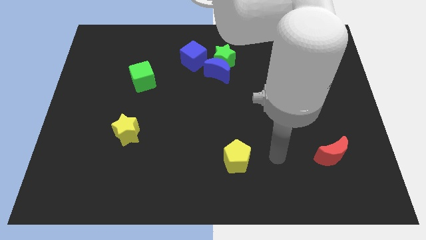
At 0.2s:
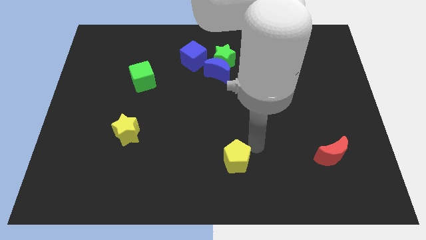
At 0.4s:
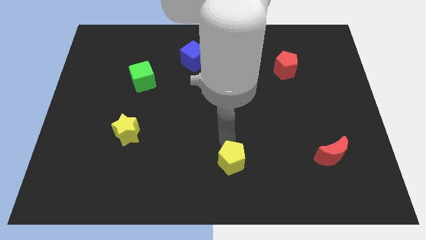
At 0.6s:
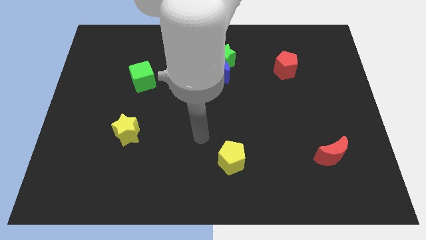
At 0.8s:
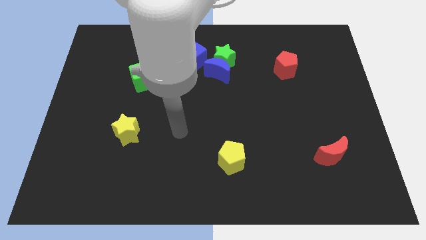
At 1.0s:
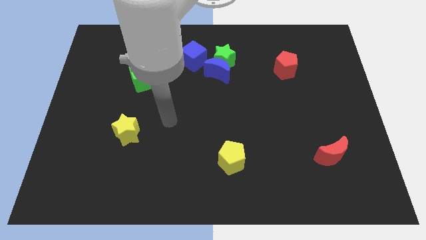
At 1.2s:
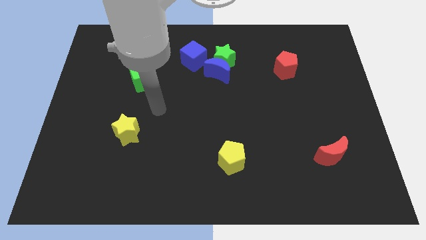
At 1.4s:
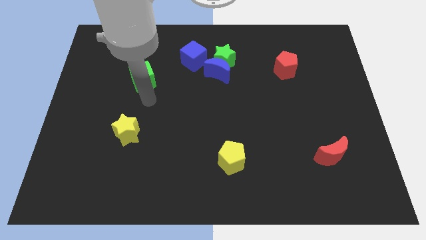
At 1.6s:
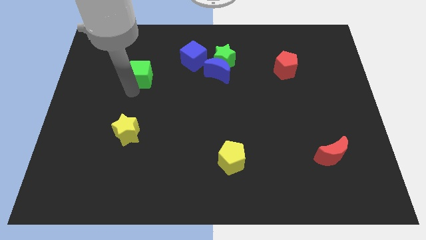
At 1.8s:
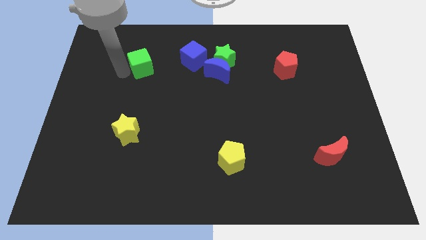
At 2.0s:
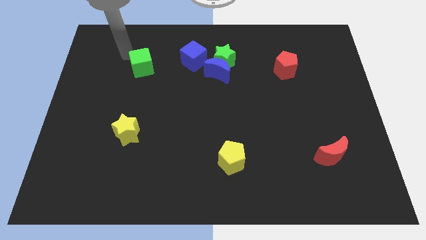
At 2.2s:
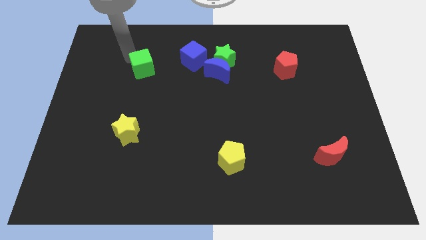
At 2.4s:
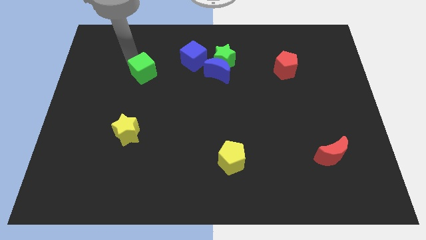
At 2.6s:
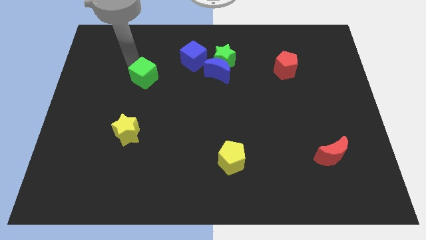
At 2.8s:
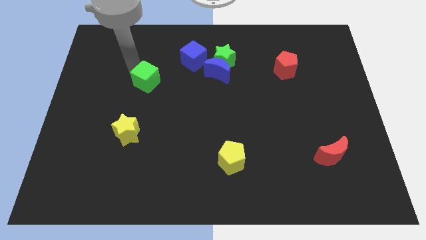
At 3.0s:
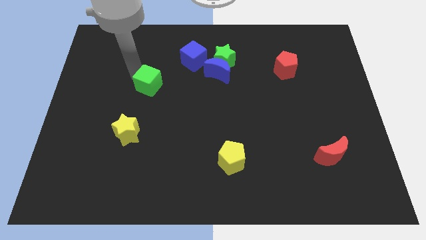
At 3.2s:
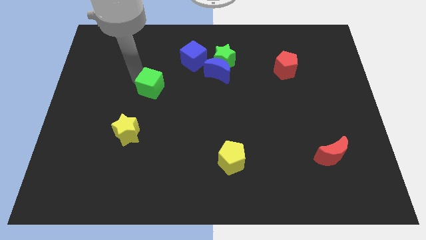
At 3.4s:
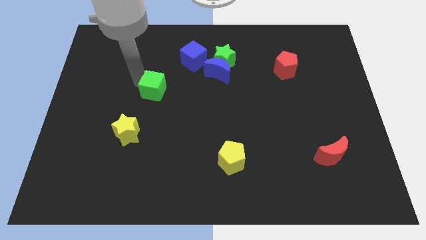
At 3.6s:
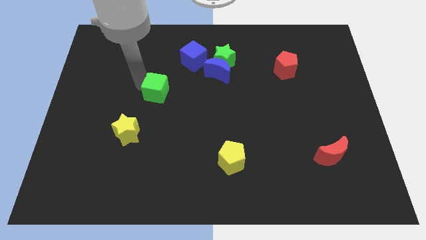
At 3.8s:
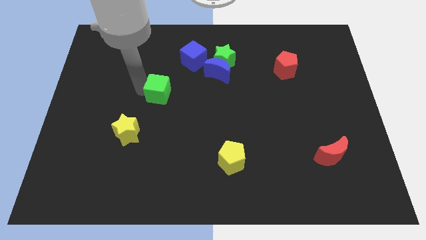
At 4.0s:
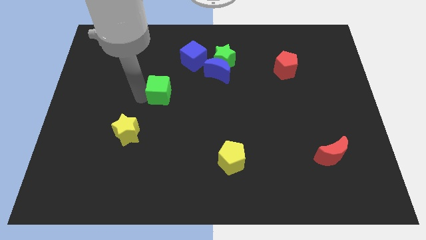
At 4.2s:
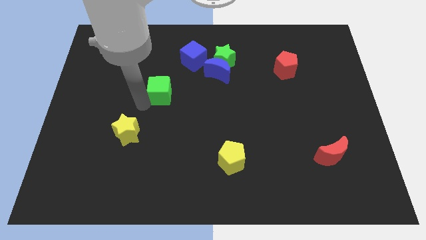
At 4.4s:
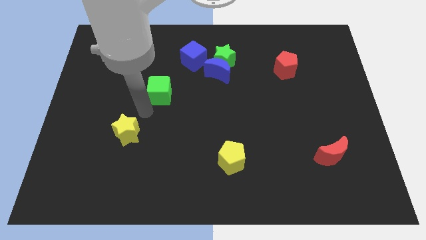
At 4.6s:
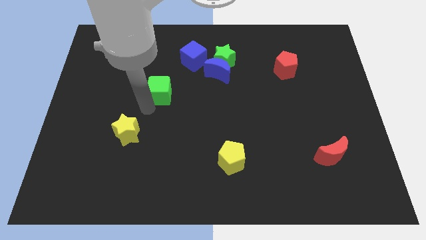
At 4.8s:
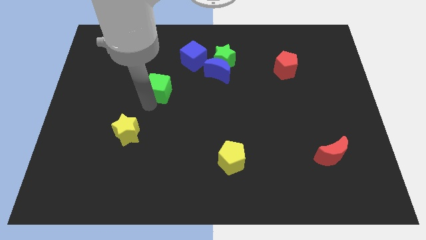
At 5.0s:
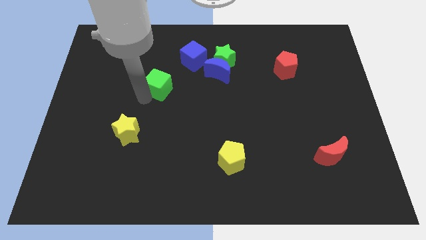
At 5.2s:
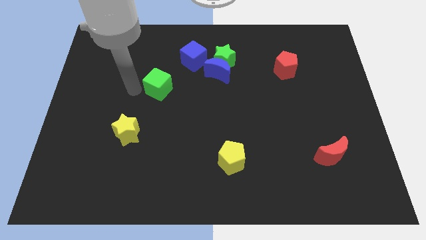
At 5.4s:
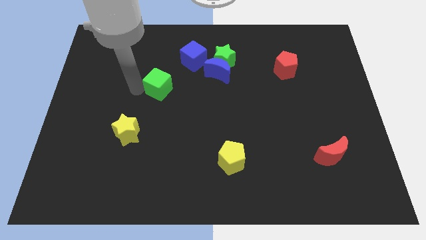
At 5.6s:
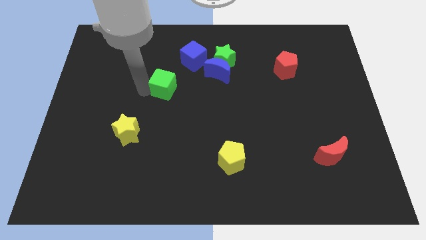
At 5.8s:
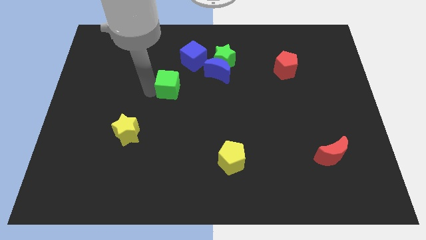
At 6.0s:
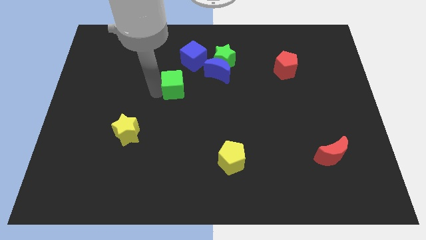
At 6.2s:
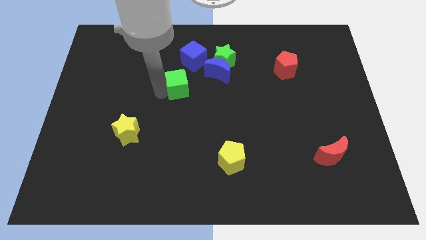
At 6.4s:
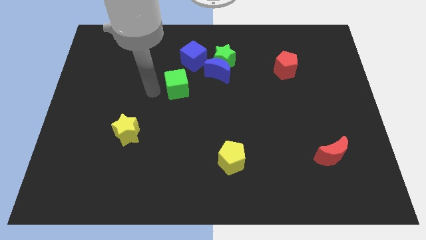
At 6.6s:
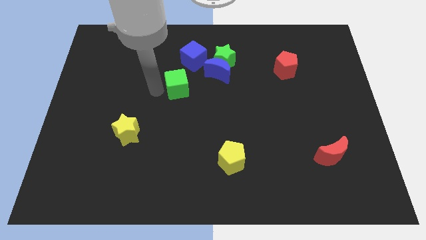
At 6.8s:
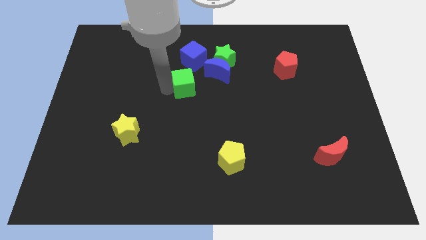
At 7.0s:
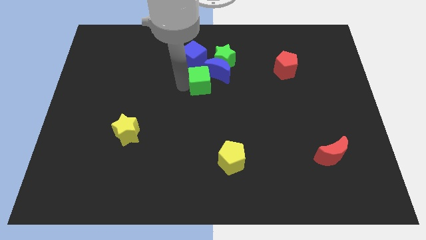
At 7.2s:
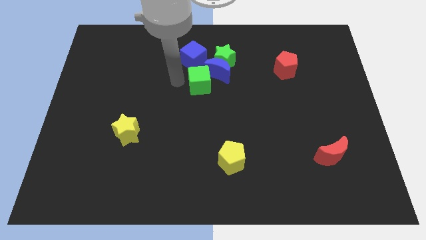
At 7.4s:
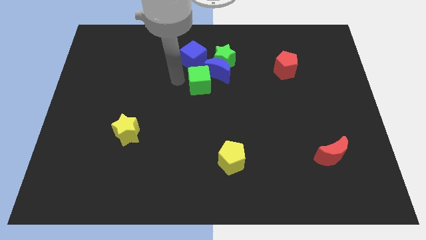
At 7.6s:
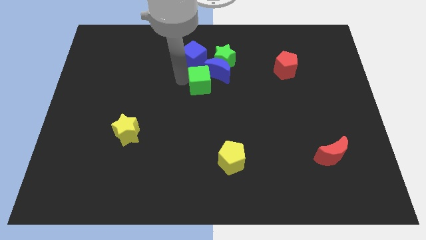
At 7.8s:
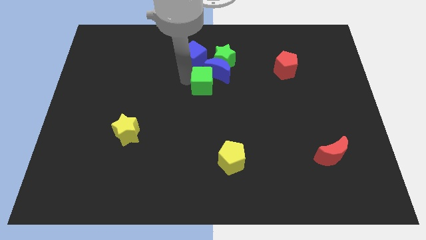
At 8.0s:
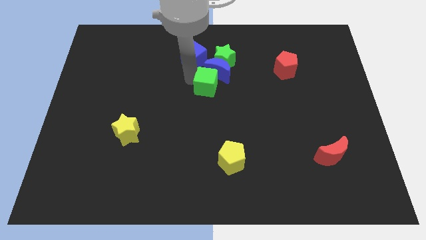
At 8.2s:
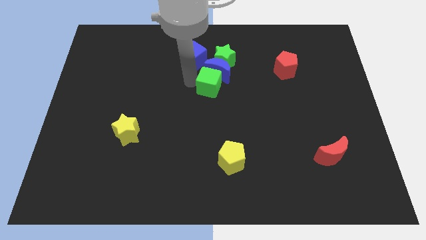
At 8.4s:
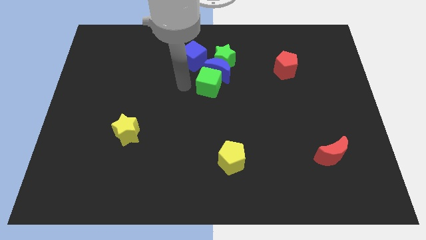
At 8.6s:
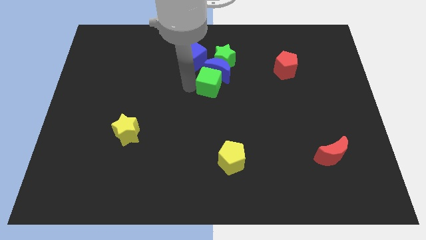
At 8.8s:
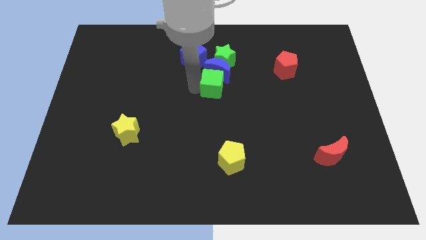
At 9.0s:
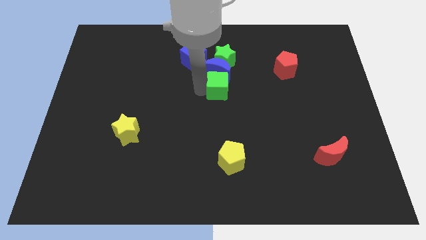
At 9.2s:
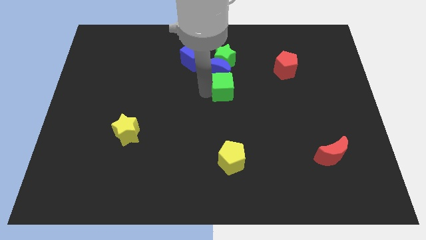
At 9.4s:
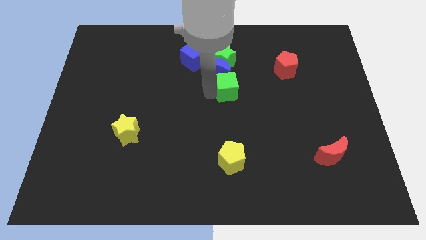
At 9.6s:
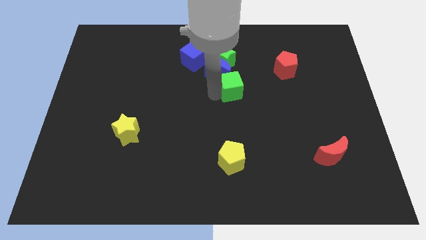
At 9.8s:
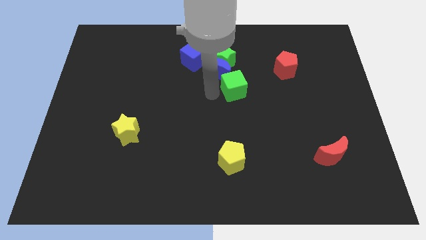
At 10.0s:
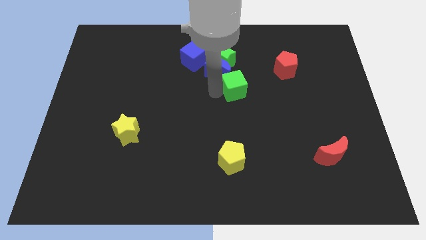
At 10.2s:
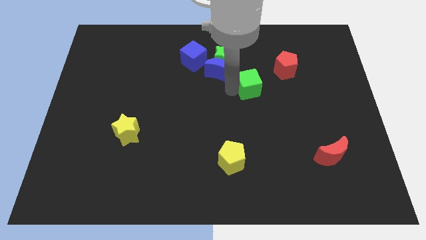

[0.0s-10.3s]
put the green cube diagonally down and to the left of the red pentagon

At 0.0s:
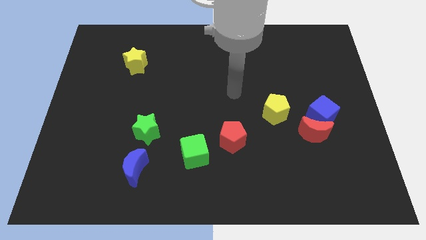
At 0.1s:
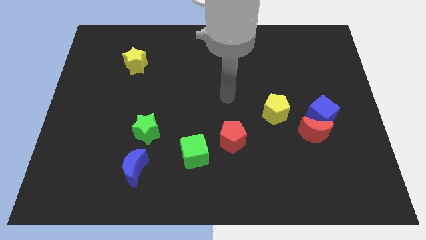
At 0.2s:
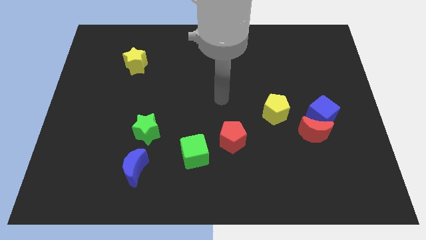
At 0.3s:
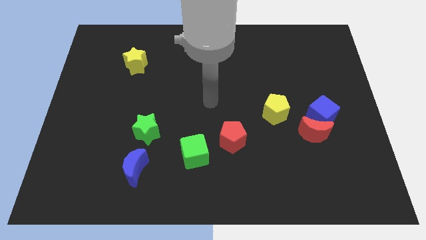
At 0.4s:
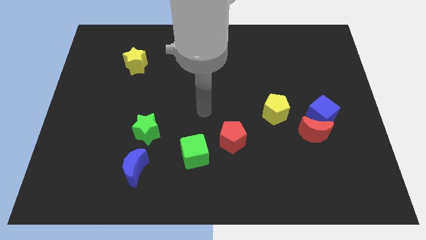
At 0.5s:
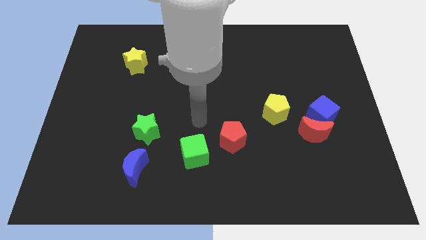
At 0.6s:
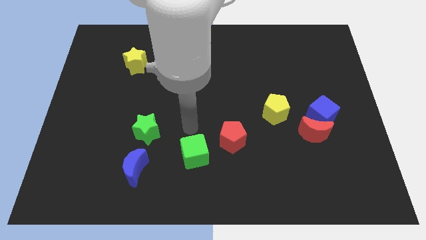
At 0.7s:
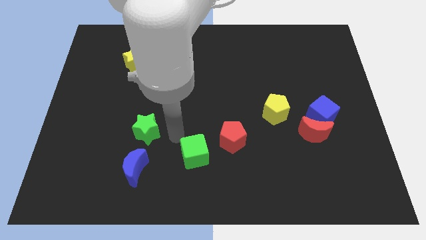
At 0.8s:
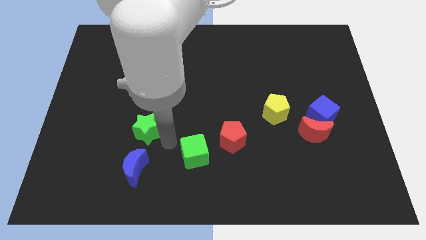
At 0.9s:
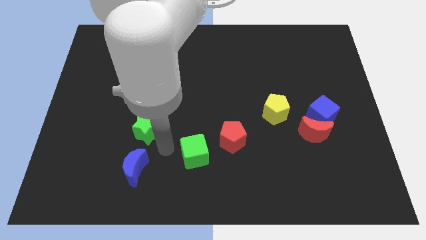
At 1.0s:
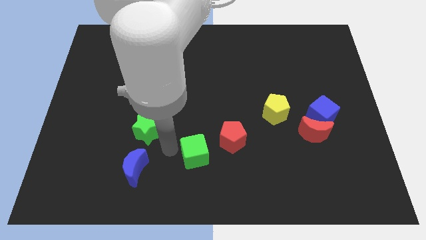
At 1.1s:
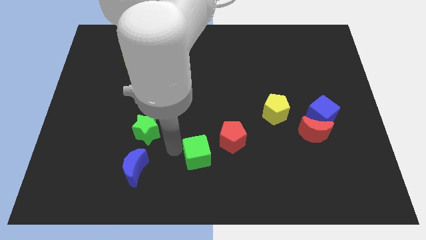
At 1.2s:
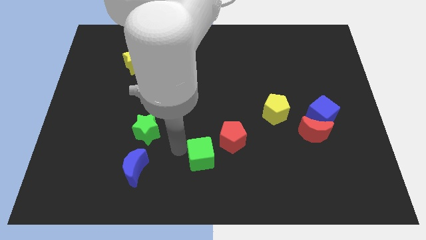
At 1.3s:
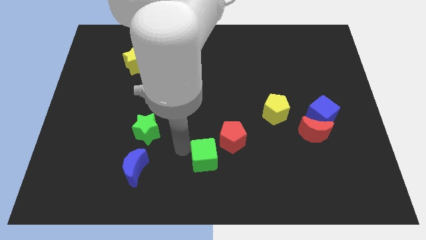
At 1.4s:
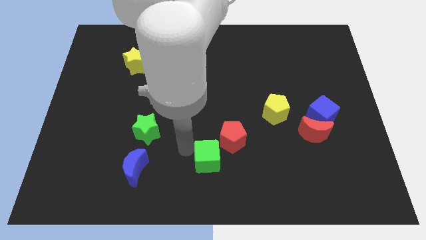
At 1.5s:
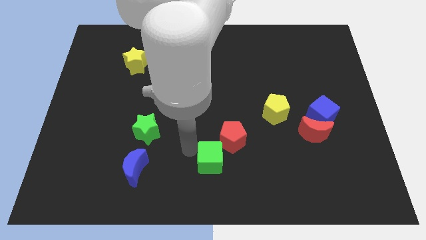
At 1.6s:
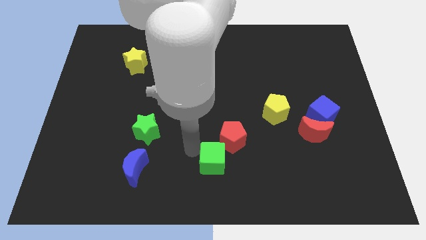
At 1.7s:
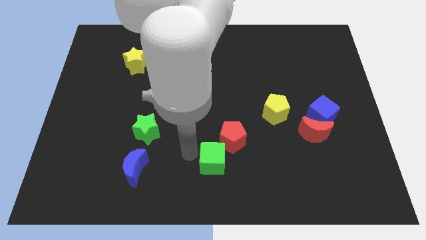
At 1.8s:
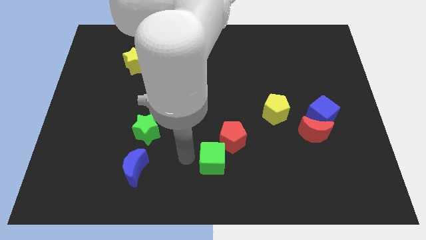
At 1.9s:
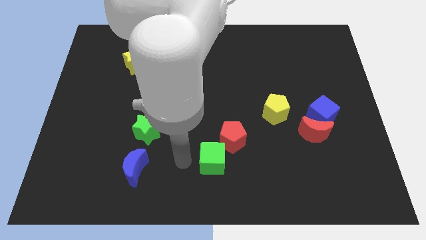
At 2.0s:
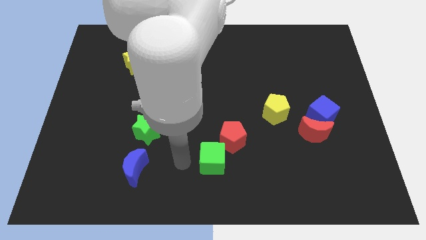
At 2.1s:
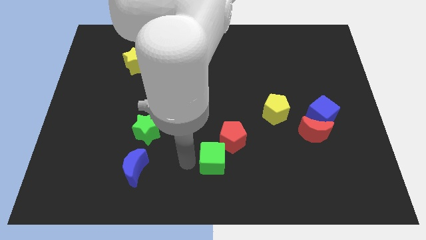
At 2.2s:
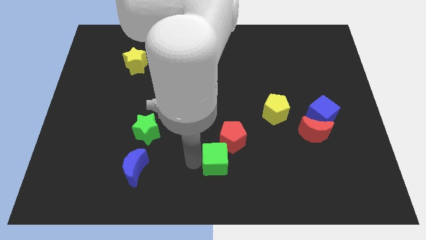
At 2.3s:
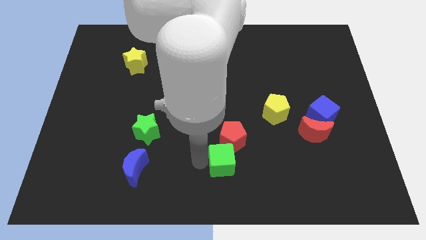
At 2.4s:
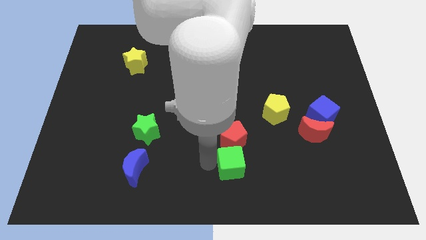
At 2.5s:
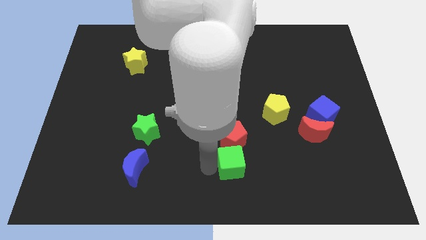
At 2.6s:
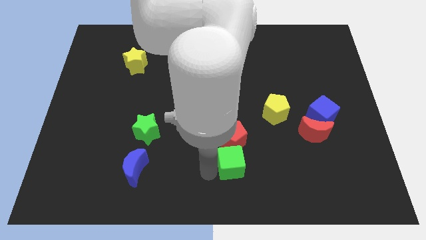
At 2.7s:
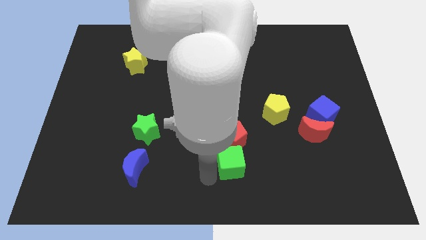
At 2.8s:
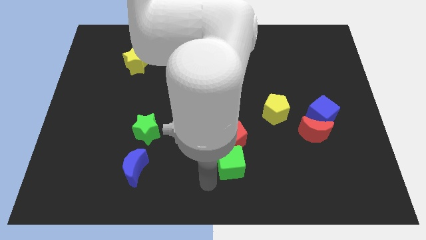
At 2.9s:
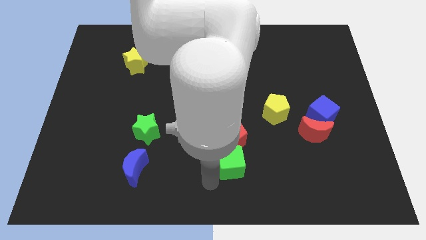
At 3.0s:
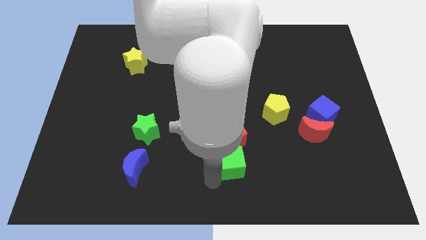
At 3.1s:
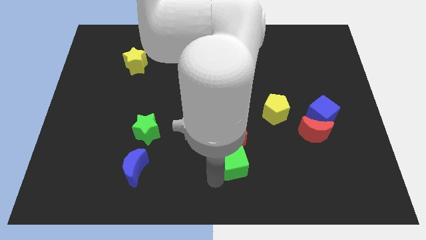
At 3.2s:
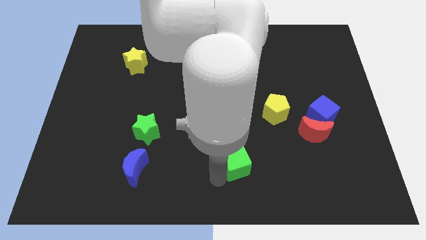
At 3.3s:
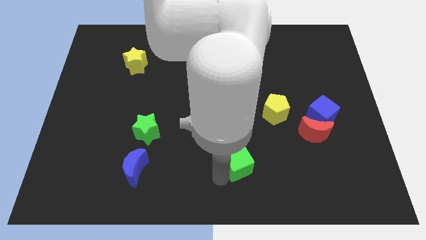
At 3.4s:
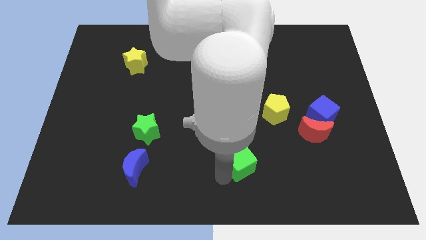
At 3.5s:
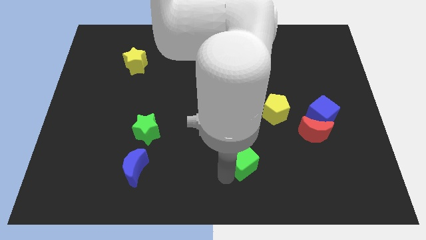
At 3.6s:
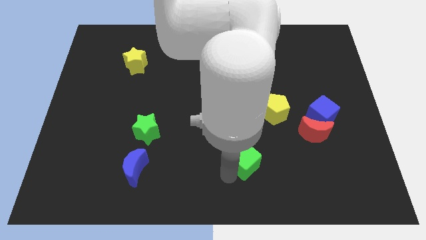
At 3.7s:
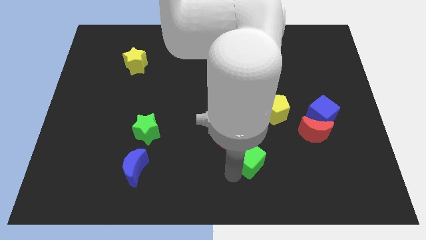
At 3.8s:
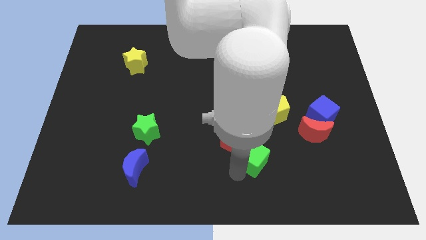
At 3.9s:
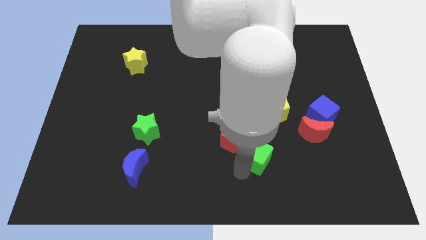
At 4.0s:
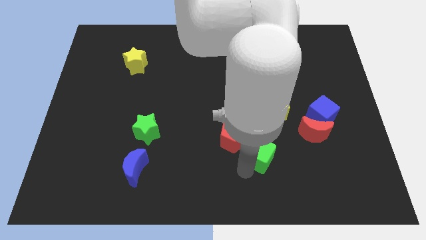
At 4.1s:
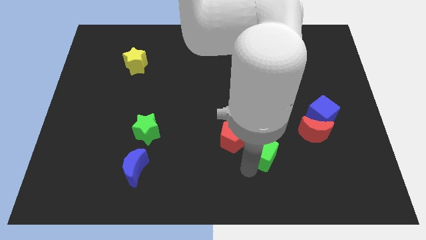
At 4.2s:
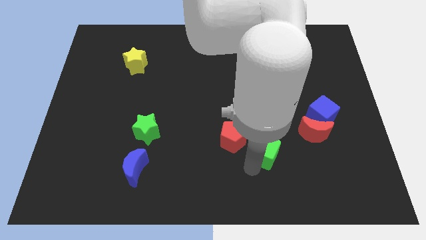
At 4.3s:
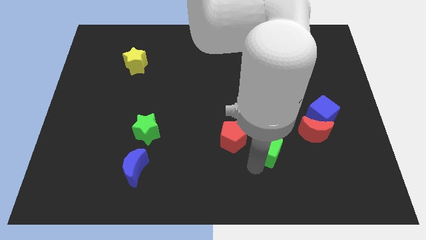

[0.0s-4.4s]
put the green cube left of the red moon
